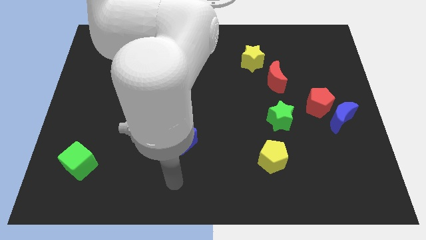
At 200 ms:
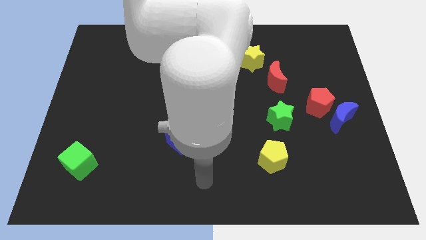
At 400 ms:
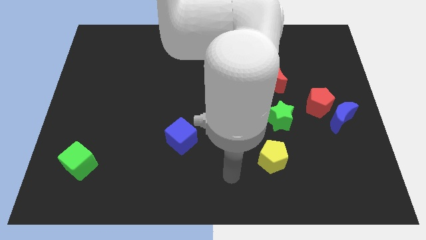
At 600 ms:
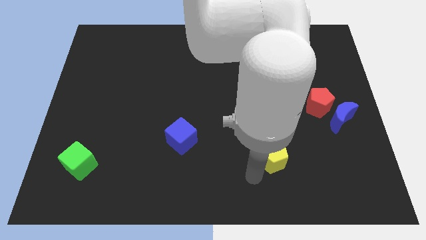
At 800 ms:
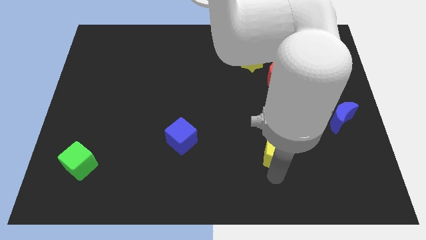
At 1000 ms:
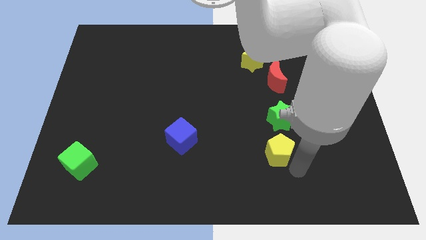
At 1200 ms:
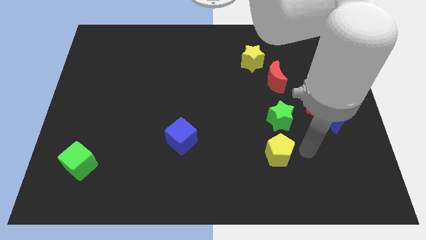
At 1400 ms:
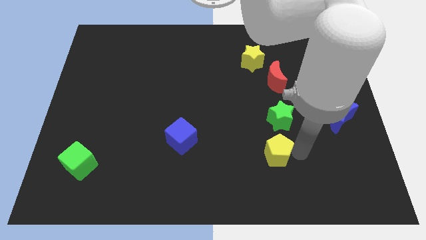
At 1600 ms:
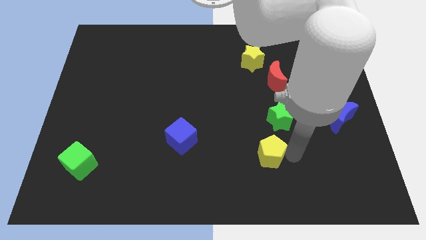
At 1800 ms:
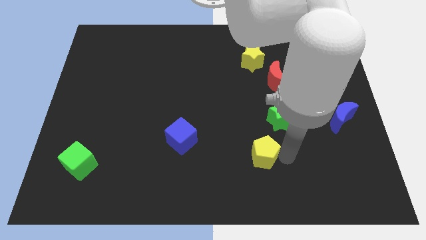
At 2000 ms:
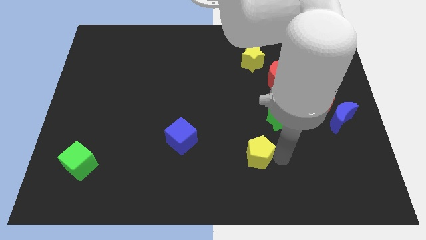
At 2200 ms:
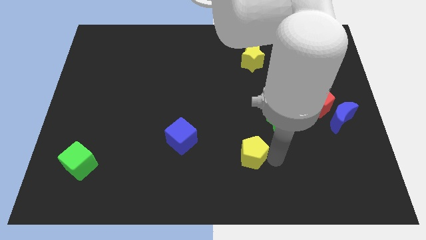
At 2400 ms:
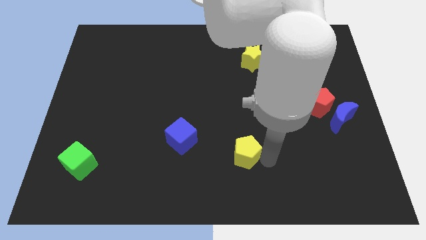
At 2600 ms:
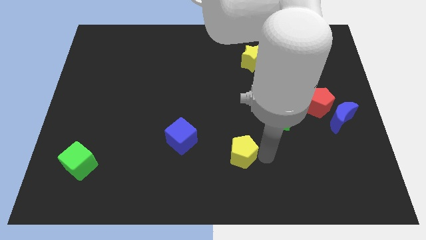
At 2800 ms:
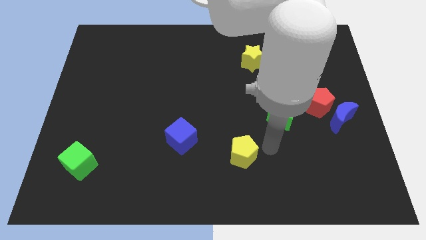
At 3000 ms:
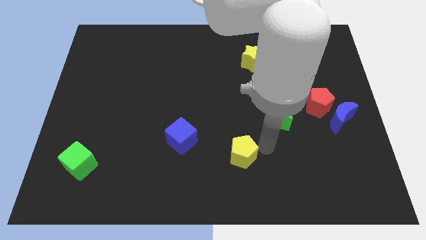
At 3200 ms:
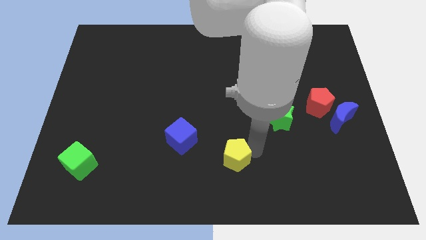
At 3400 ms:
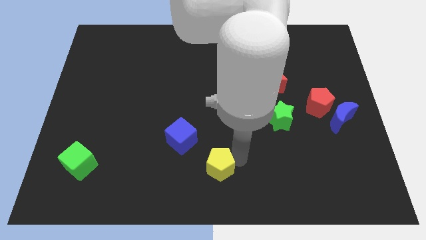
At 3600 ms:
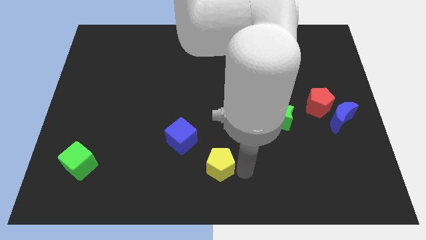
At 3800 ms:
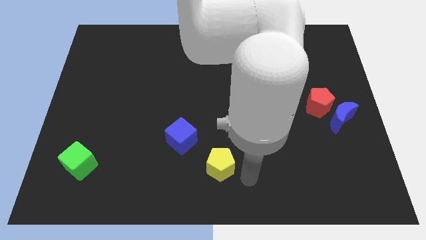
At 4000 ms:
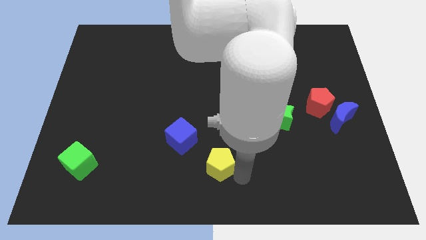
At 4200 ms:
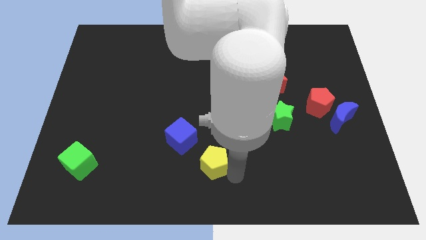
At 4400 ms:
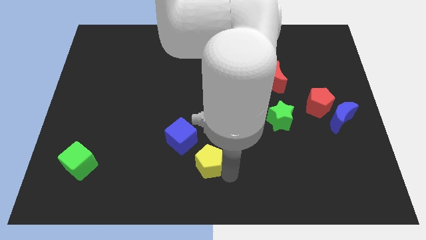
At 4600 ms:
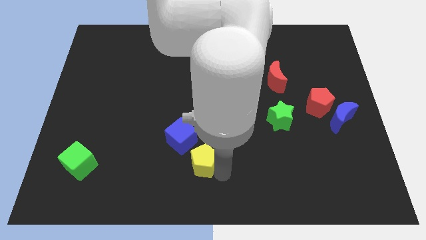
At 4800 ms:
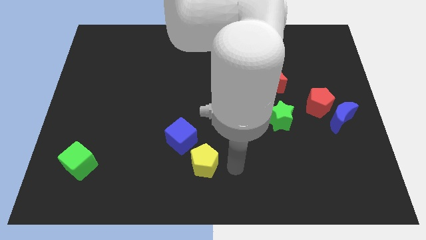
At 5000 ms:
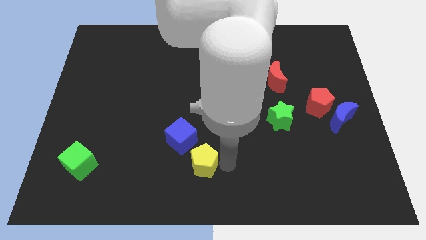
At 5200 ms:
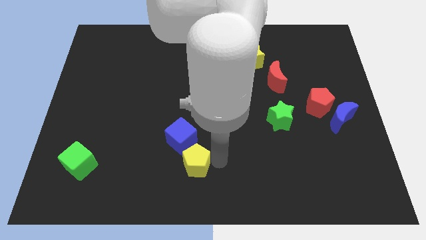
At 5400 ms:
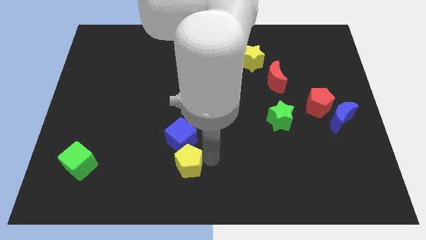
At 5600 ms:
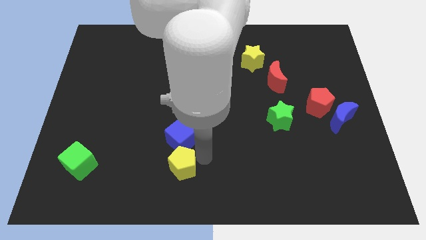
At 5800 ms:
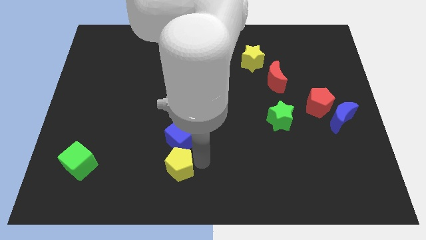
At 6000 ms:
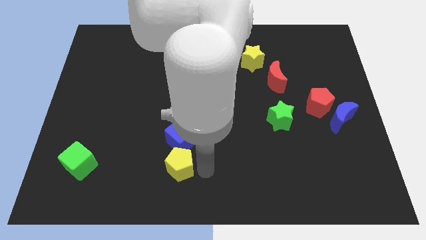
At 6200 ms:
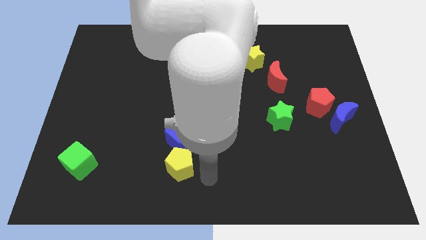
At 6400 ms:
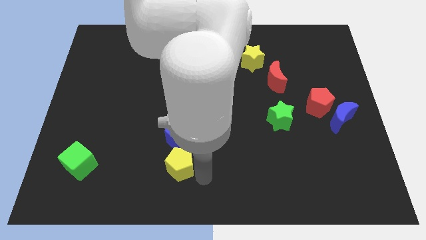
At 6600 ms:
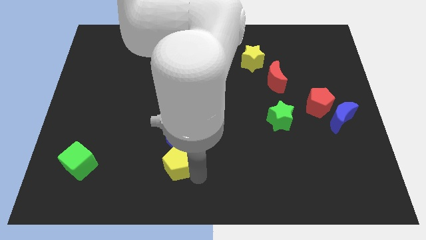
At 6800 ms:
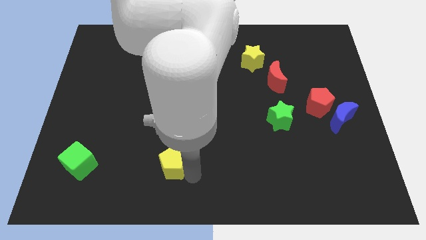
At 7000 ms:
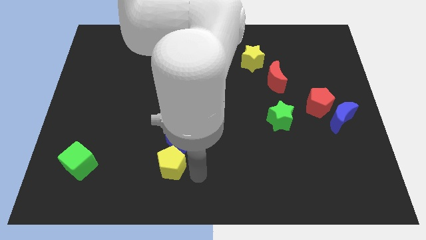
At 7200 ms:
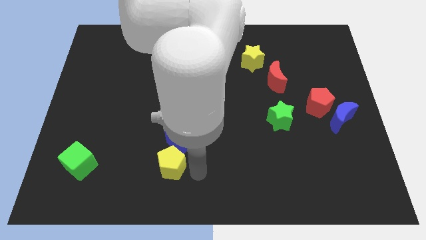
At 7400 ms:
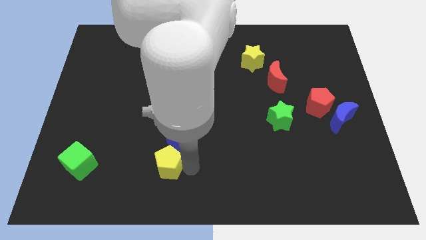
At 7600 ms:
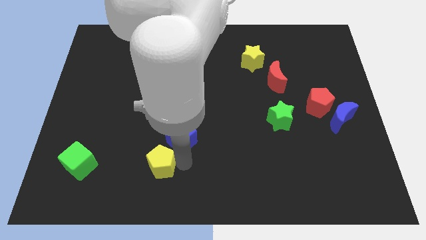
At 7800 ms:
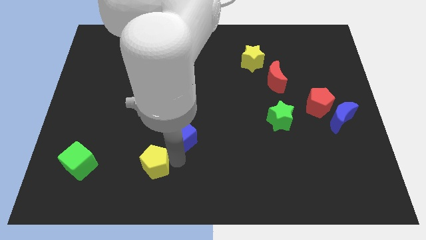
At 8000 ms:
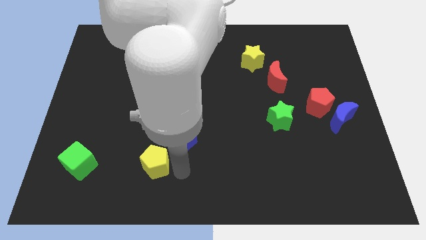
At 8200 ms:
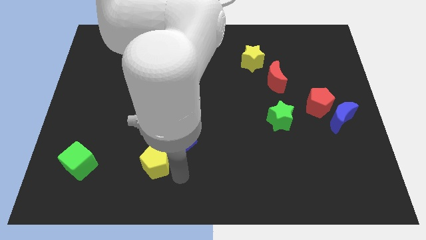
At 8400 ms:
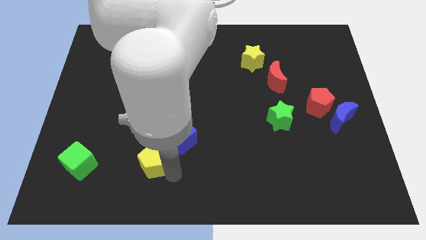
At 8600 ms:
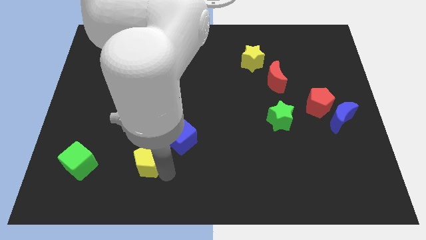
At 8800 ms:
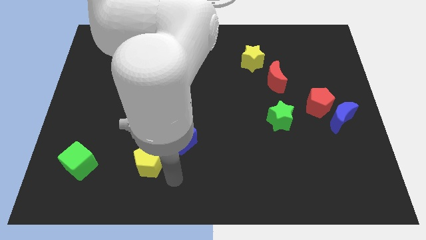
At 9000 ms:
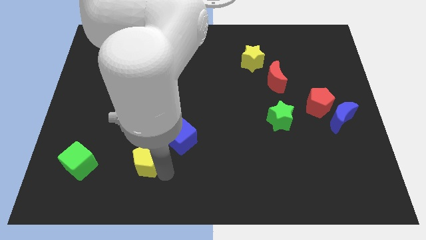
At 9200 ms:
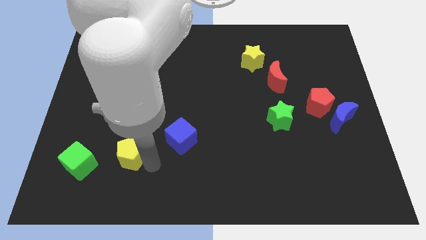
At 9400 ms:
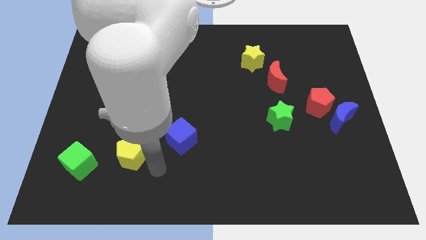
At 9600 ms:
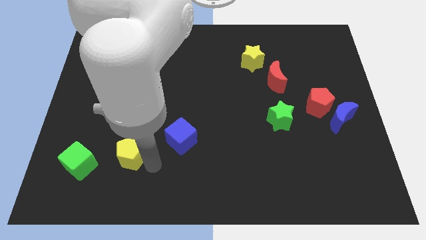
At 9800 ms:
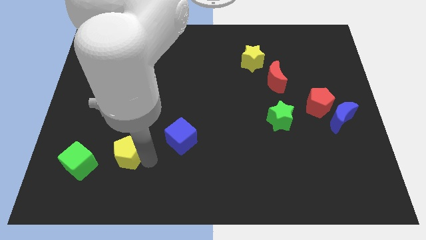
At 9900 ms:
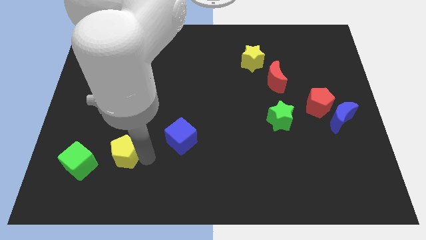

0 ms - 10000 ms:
move the yellow pentagon to the top right side of the green cube

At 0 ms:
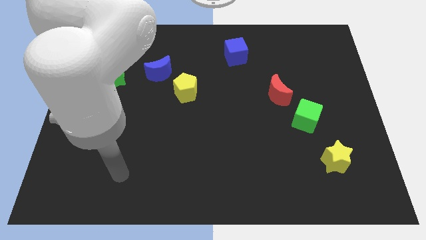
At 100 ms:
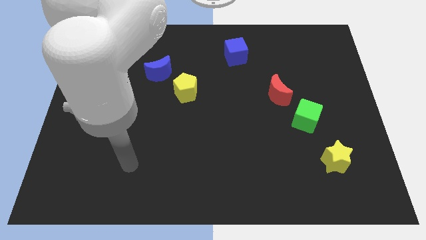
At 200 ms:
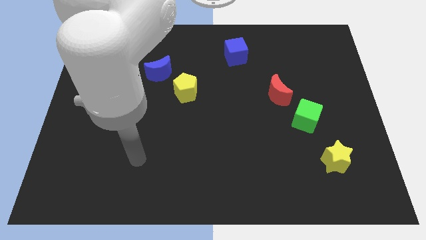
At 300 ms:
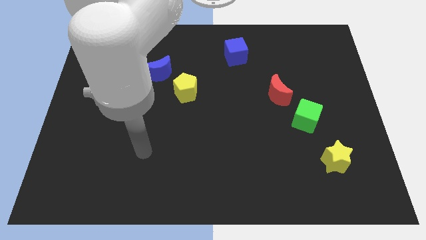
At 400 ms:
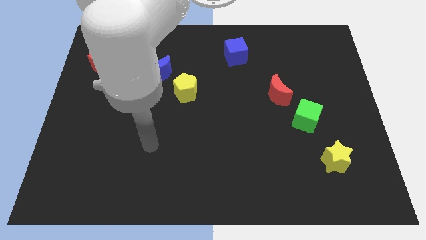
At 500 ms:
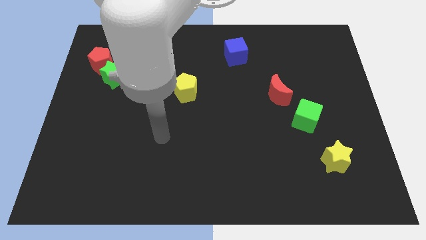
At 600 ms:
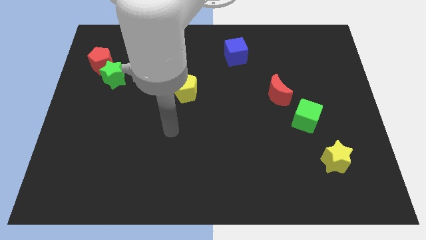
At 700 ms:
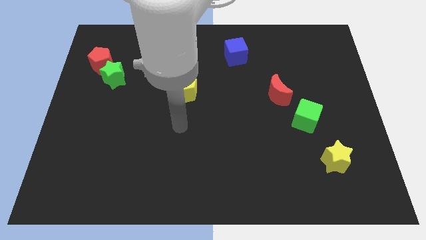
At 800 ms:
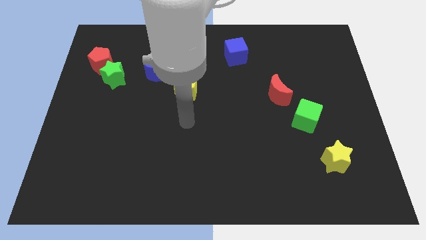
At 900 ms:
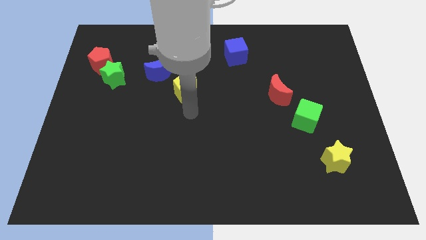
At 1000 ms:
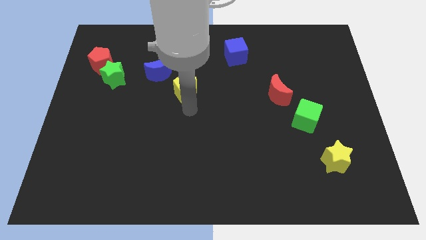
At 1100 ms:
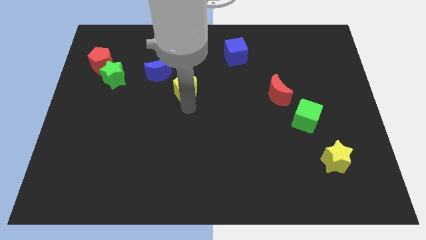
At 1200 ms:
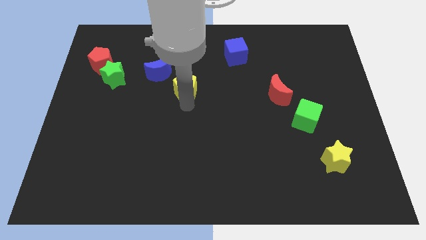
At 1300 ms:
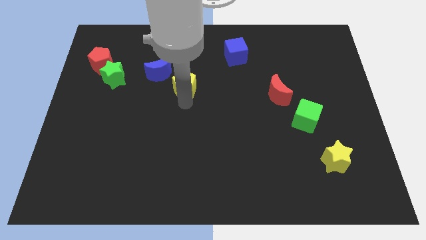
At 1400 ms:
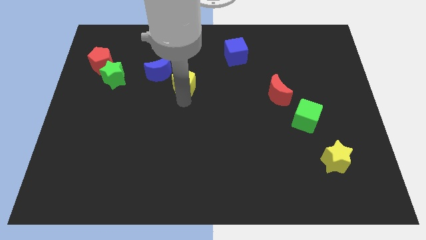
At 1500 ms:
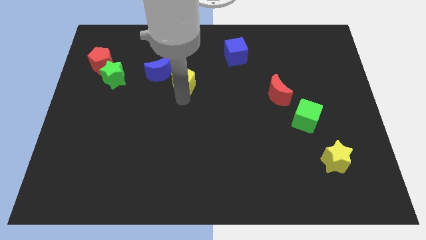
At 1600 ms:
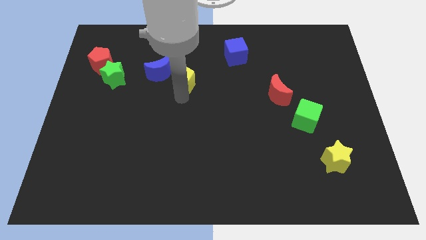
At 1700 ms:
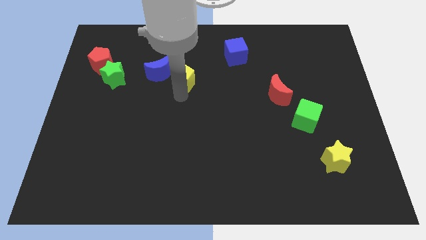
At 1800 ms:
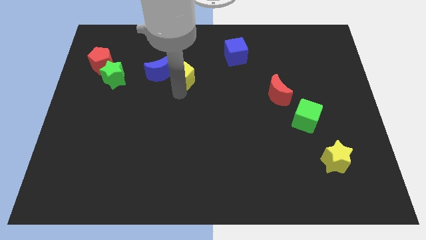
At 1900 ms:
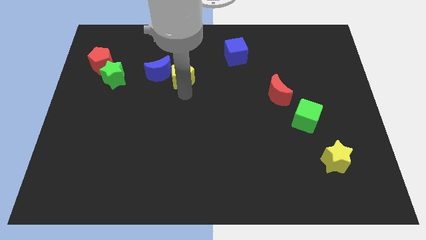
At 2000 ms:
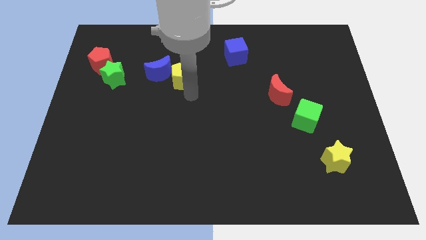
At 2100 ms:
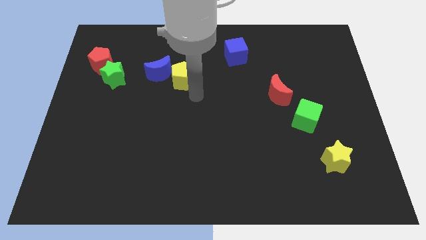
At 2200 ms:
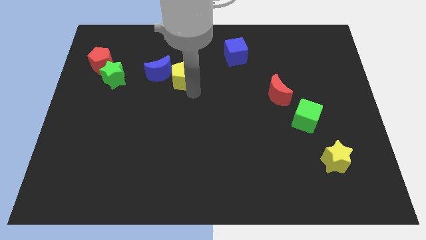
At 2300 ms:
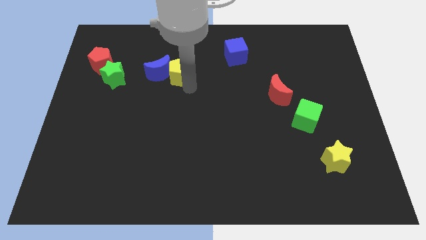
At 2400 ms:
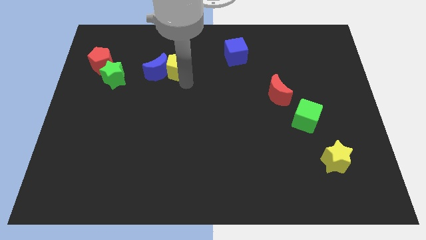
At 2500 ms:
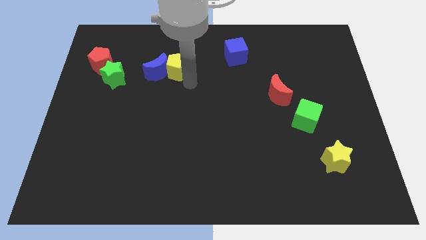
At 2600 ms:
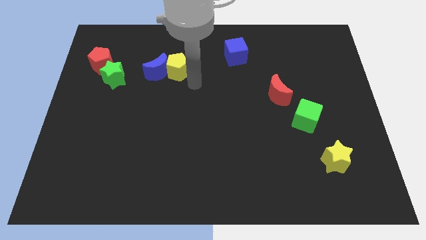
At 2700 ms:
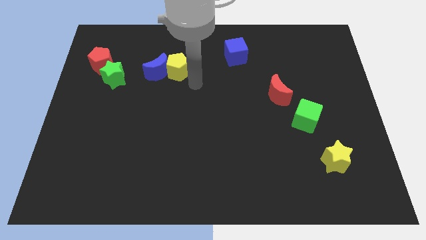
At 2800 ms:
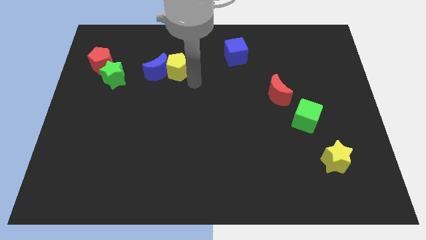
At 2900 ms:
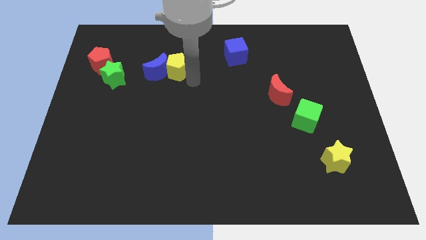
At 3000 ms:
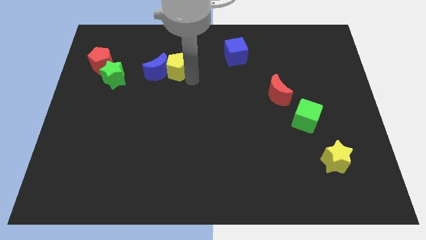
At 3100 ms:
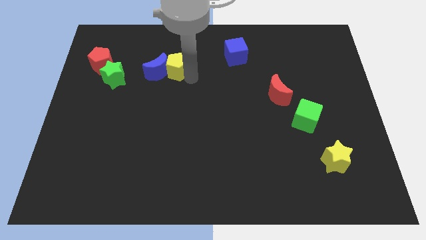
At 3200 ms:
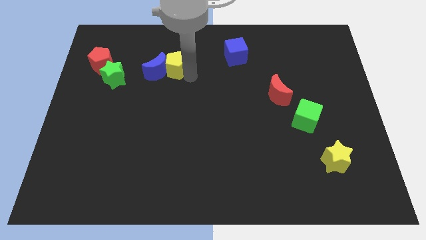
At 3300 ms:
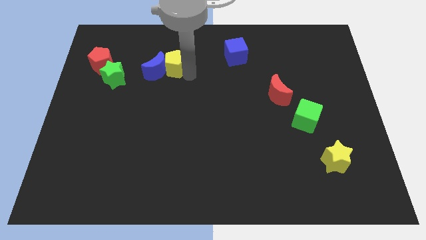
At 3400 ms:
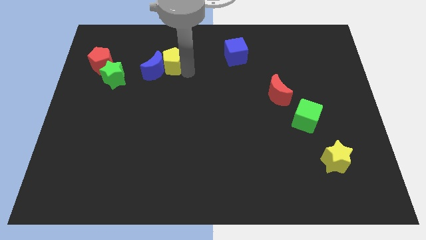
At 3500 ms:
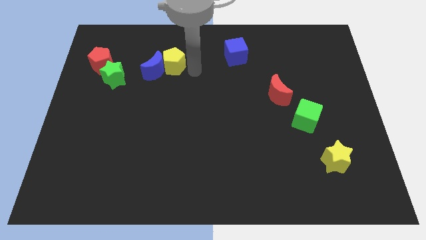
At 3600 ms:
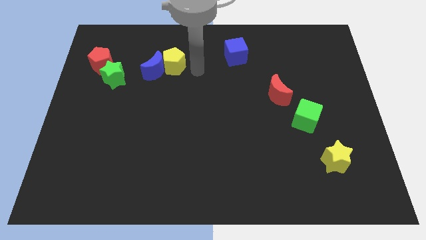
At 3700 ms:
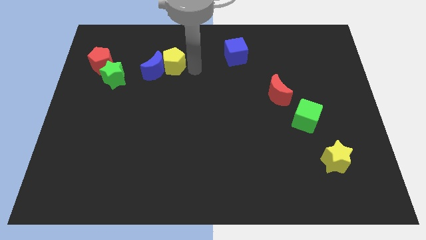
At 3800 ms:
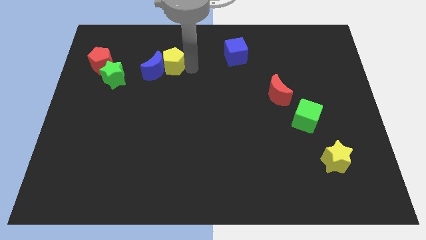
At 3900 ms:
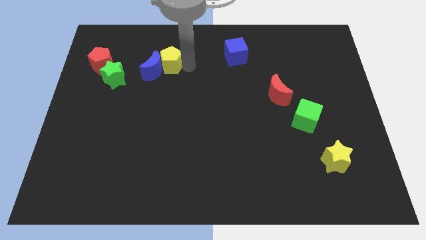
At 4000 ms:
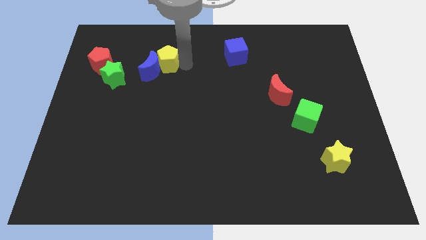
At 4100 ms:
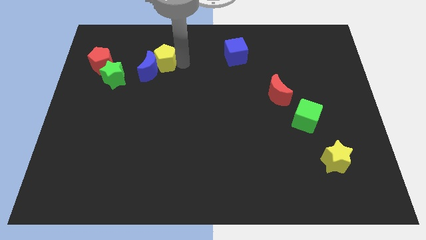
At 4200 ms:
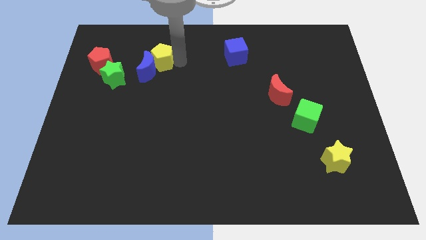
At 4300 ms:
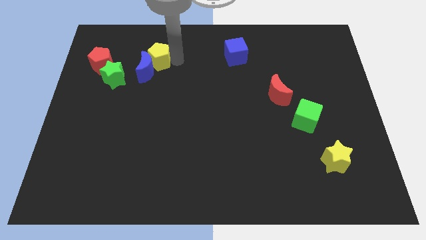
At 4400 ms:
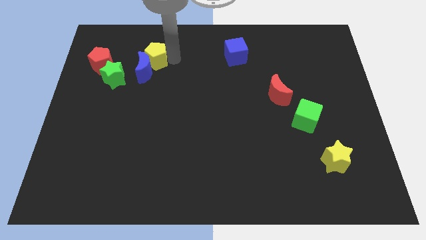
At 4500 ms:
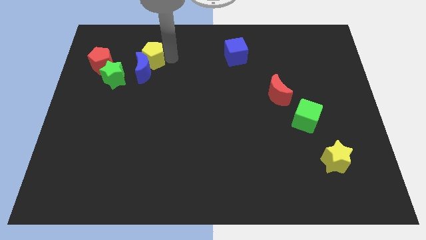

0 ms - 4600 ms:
put the yellow pentagon to the top left side of the blue moon
